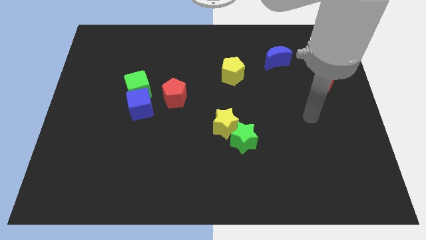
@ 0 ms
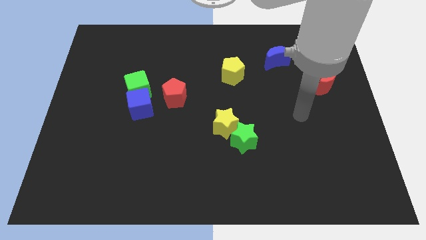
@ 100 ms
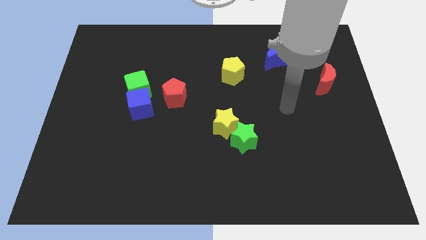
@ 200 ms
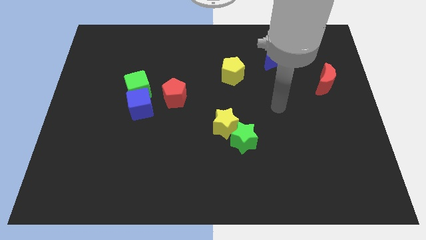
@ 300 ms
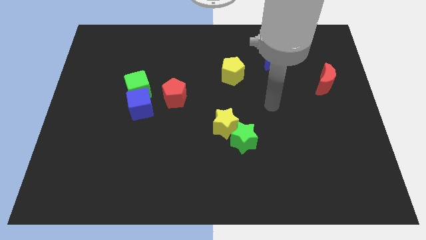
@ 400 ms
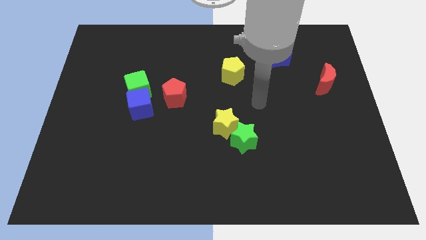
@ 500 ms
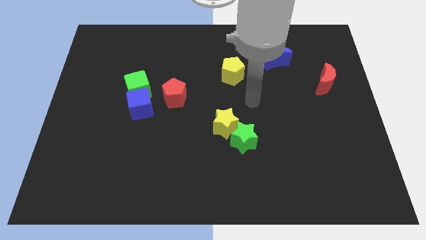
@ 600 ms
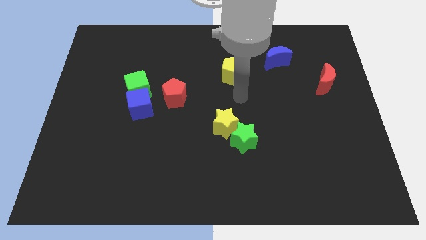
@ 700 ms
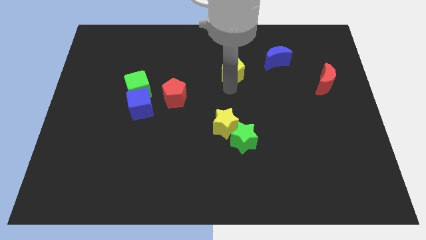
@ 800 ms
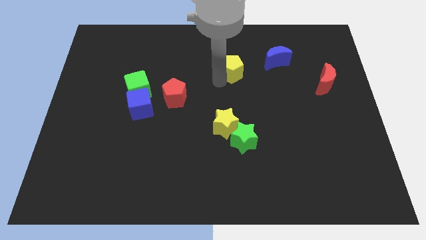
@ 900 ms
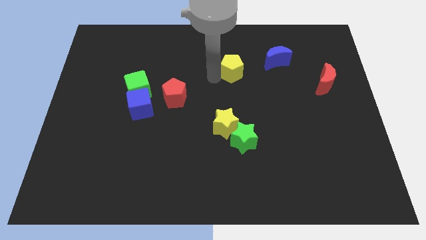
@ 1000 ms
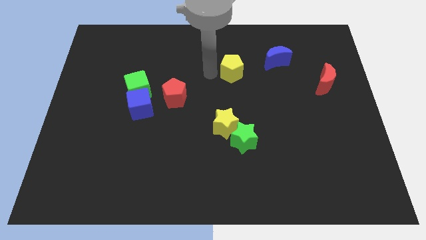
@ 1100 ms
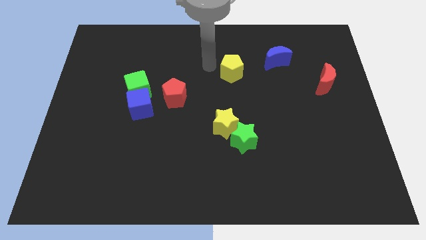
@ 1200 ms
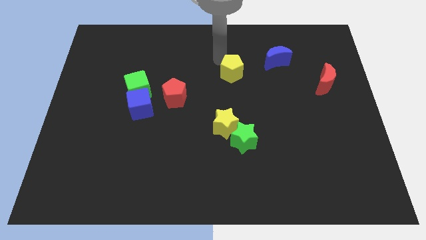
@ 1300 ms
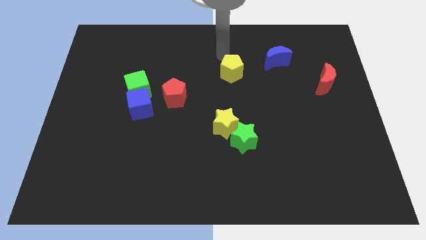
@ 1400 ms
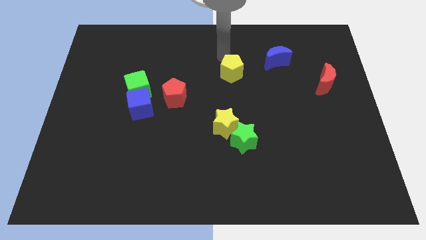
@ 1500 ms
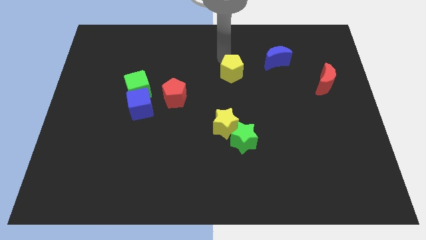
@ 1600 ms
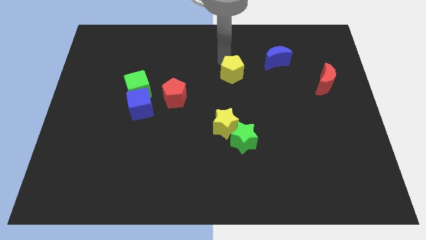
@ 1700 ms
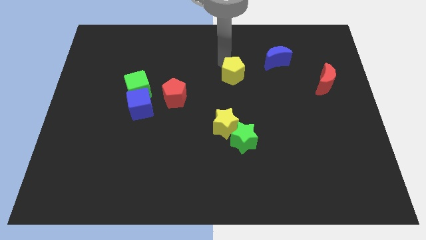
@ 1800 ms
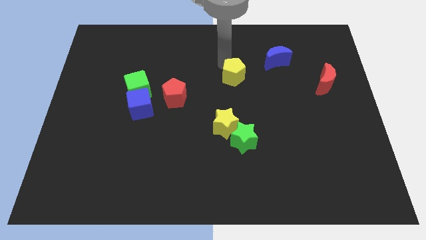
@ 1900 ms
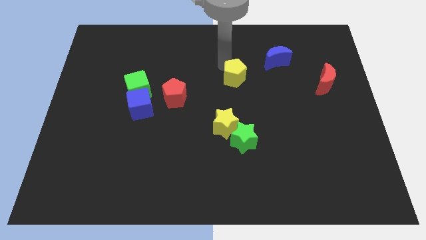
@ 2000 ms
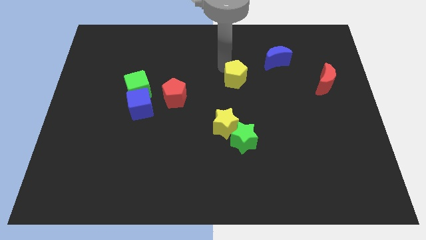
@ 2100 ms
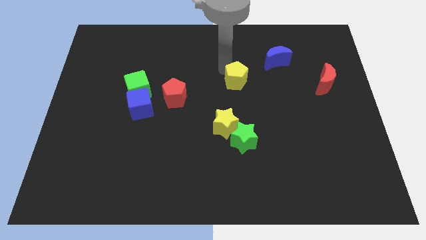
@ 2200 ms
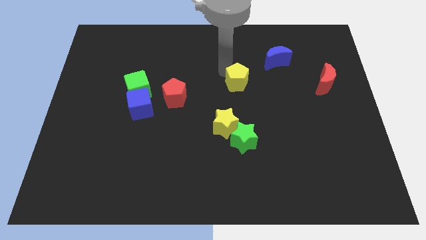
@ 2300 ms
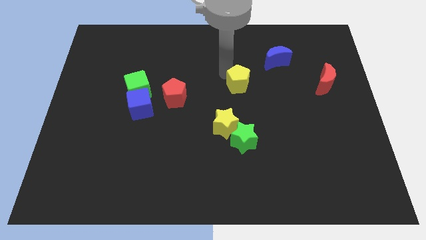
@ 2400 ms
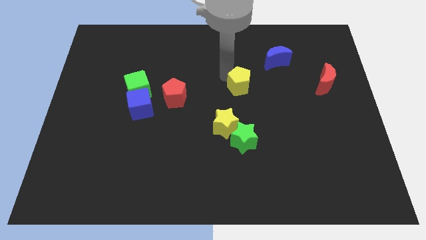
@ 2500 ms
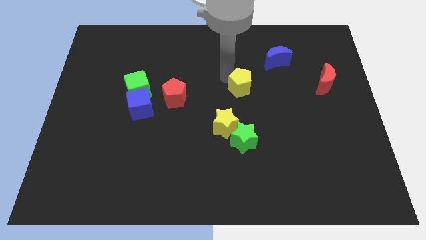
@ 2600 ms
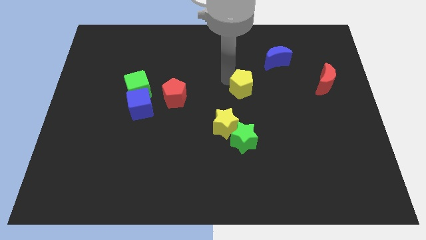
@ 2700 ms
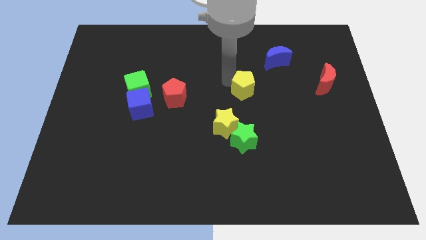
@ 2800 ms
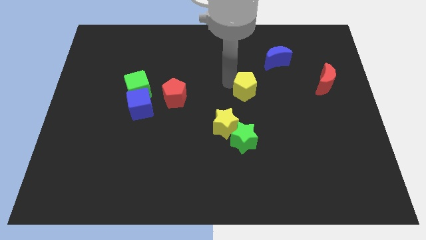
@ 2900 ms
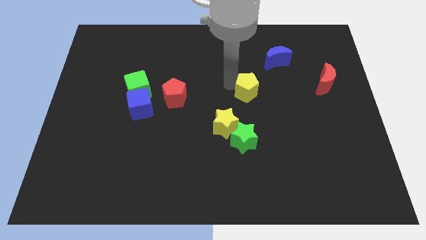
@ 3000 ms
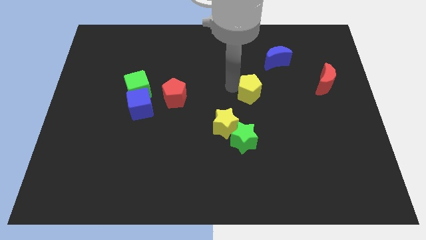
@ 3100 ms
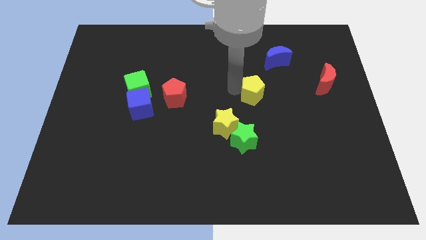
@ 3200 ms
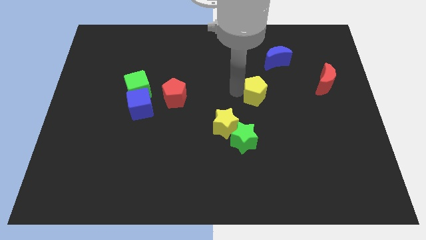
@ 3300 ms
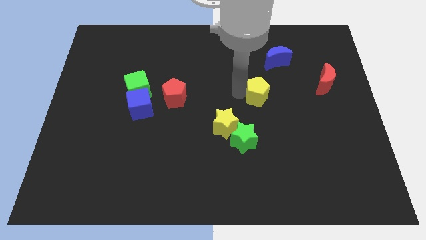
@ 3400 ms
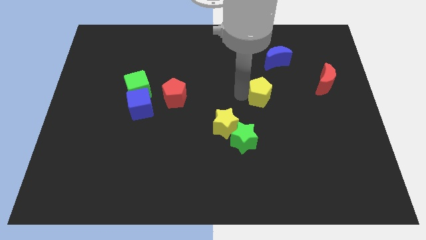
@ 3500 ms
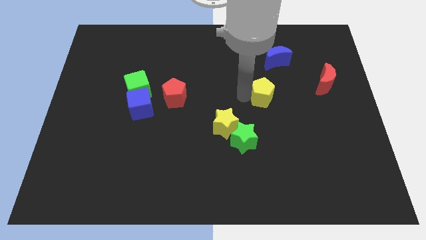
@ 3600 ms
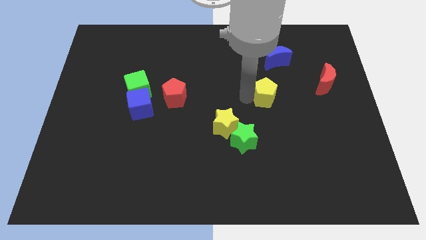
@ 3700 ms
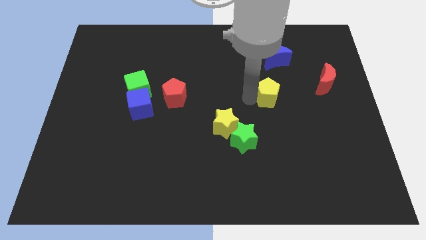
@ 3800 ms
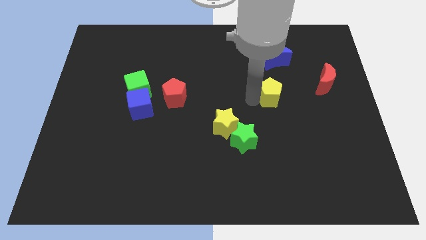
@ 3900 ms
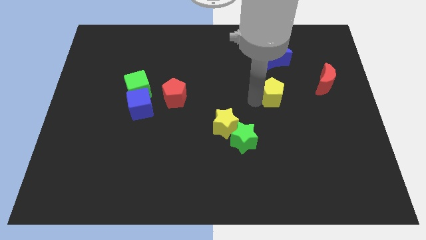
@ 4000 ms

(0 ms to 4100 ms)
slightly move the yellow pentagon to the right

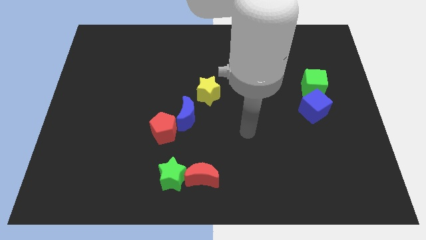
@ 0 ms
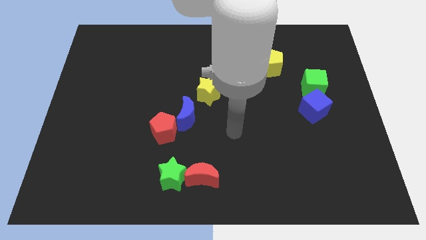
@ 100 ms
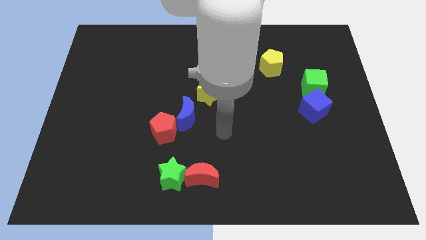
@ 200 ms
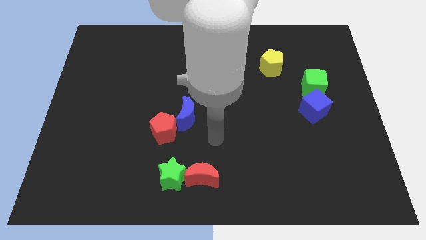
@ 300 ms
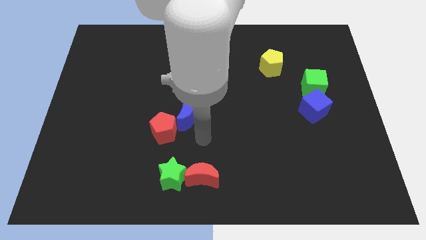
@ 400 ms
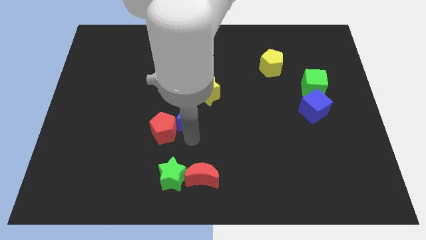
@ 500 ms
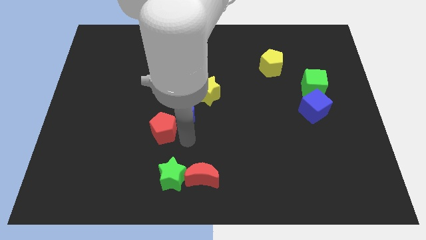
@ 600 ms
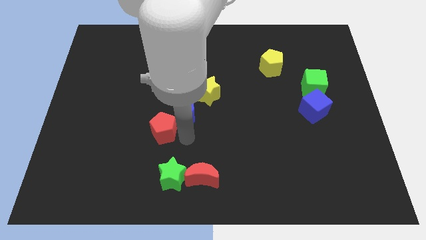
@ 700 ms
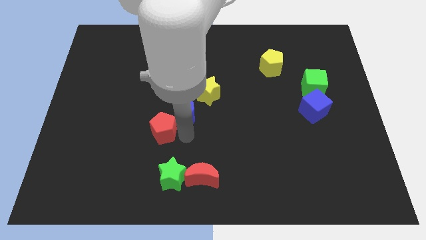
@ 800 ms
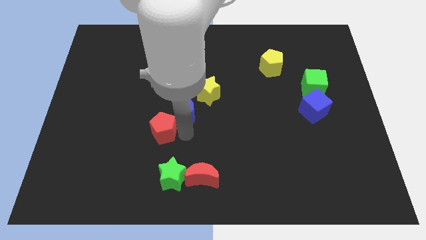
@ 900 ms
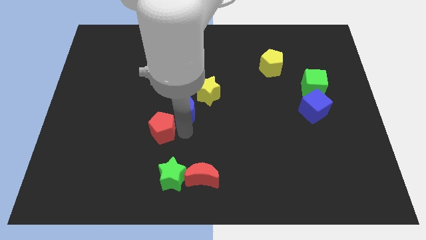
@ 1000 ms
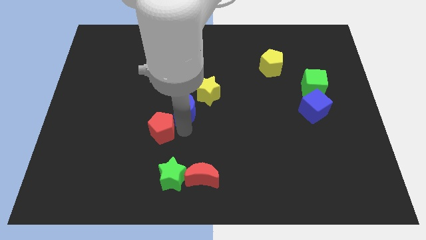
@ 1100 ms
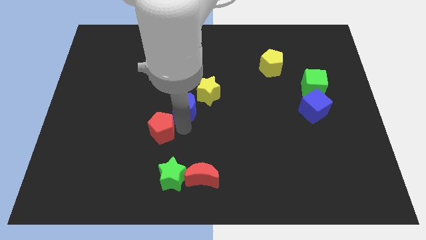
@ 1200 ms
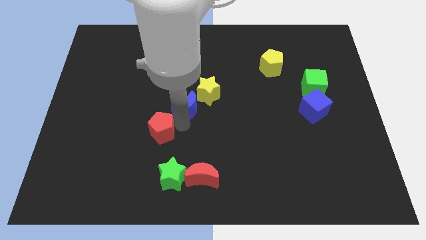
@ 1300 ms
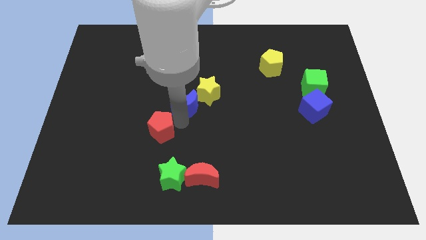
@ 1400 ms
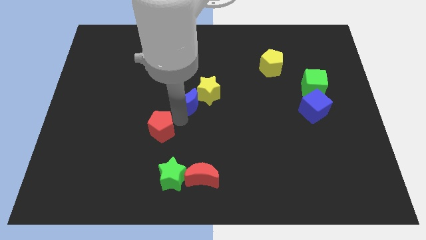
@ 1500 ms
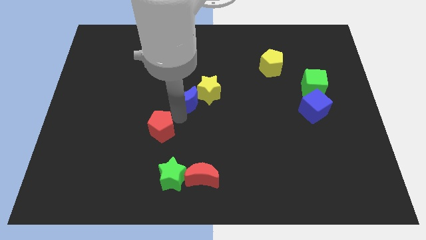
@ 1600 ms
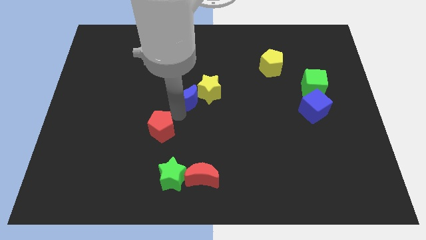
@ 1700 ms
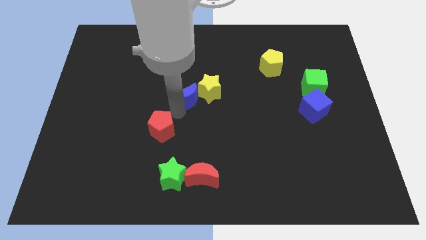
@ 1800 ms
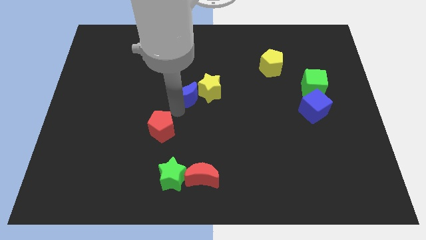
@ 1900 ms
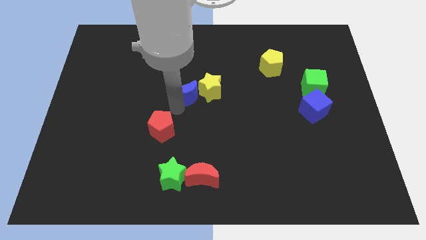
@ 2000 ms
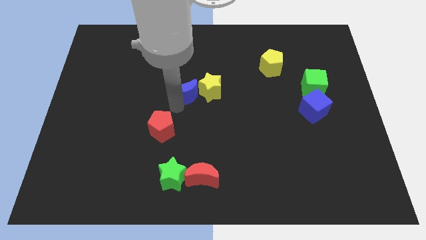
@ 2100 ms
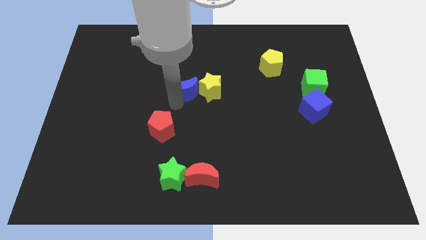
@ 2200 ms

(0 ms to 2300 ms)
push the blue moon a bit up

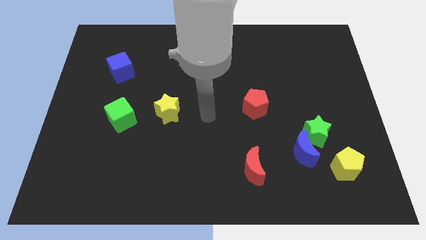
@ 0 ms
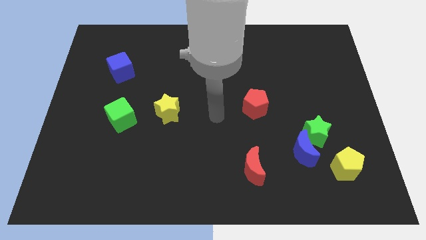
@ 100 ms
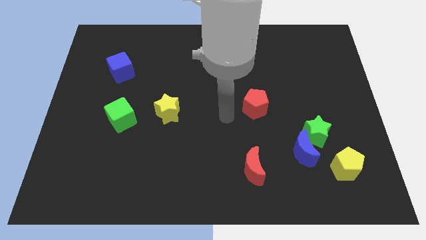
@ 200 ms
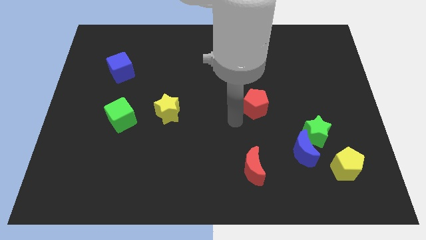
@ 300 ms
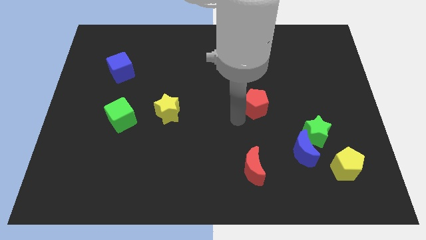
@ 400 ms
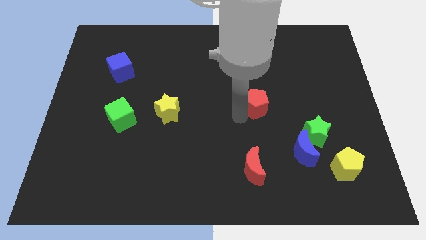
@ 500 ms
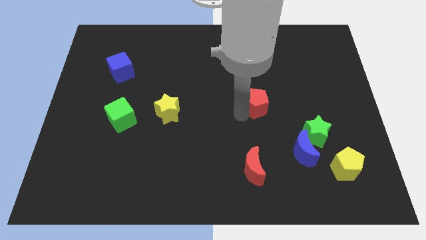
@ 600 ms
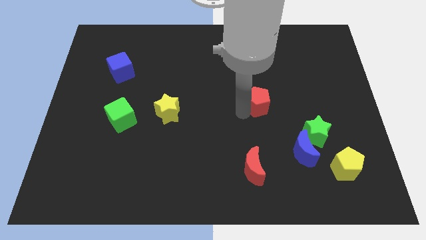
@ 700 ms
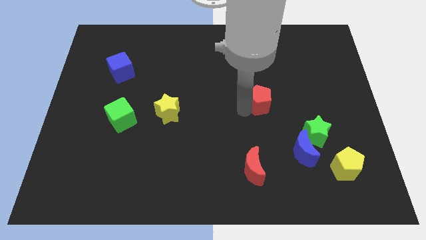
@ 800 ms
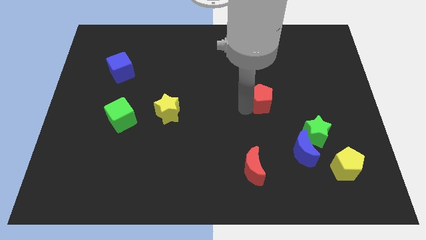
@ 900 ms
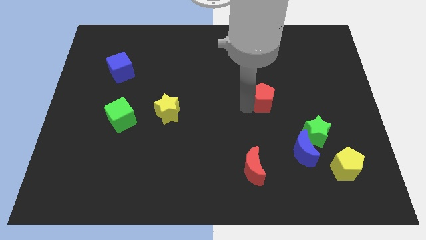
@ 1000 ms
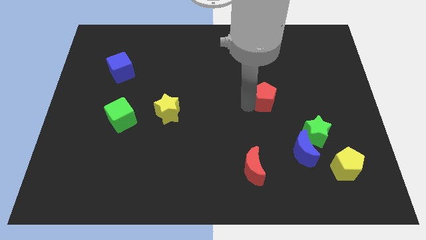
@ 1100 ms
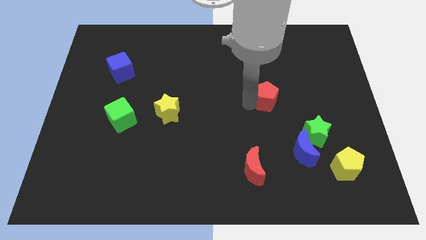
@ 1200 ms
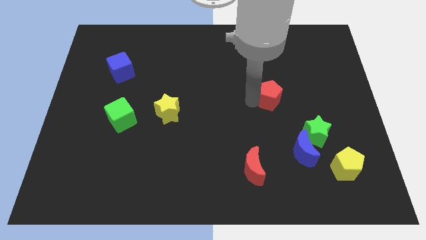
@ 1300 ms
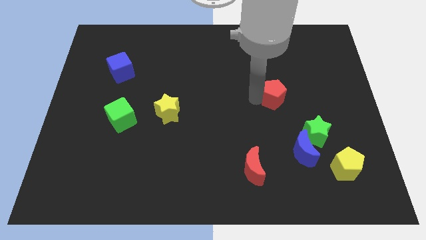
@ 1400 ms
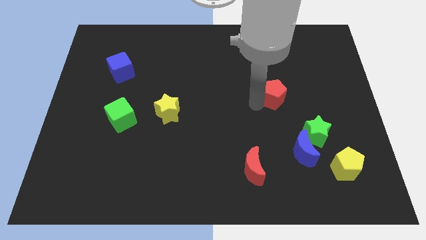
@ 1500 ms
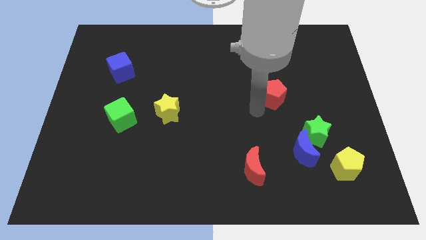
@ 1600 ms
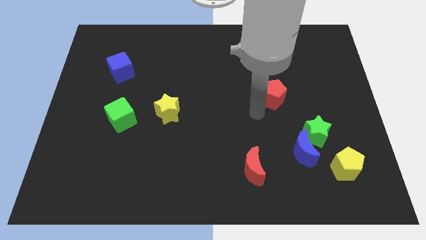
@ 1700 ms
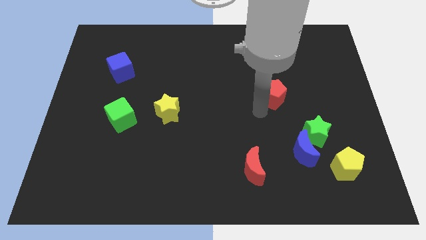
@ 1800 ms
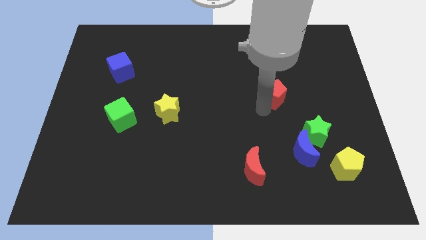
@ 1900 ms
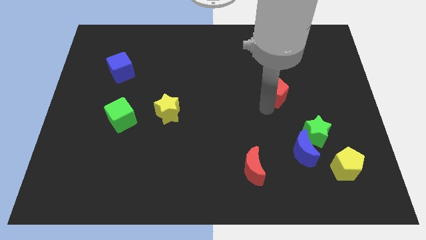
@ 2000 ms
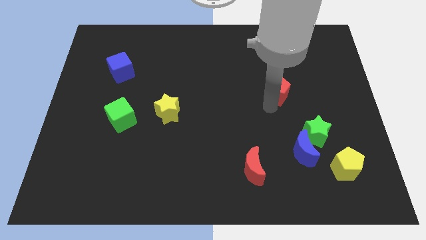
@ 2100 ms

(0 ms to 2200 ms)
push the red pentagon slightly upwards and right diagonally
